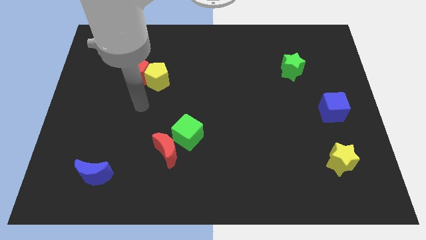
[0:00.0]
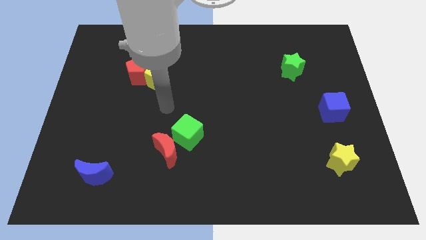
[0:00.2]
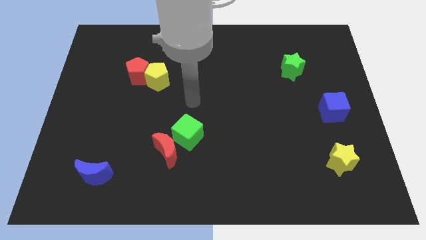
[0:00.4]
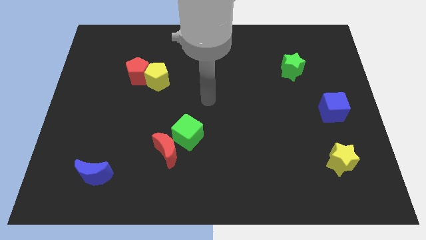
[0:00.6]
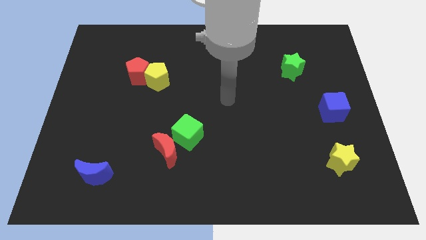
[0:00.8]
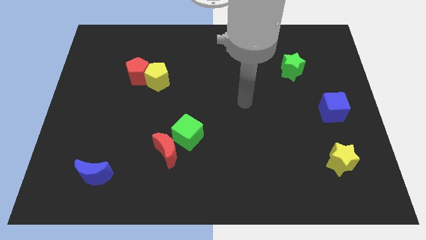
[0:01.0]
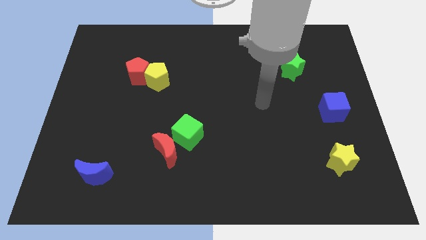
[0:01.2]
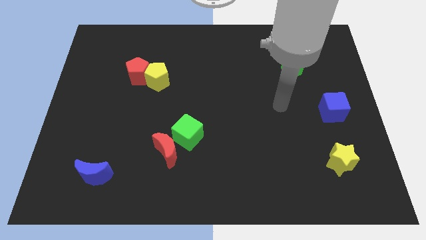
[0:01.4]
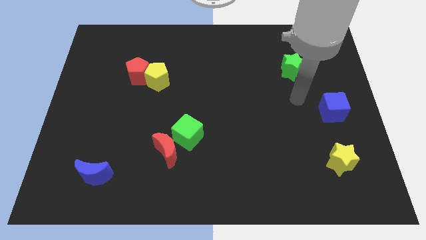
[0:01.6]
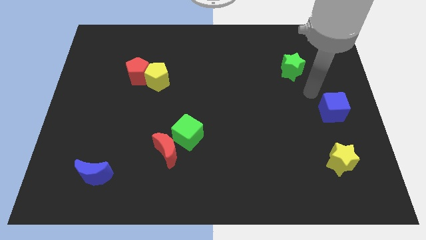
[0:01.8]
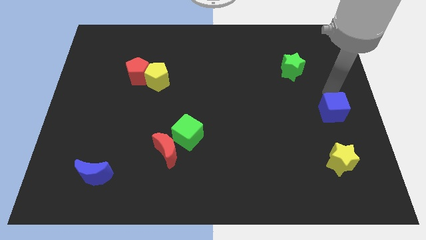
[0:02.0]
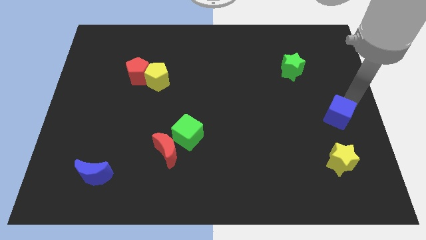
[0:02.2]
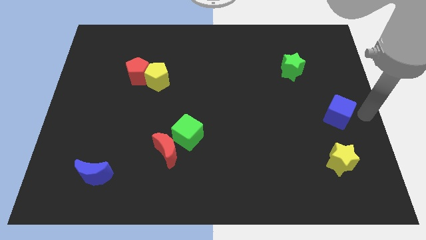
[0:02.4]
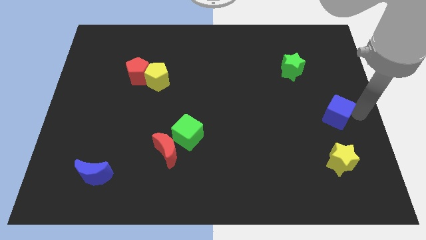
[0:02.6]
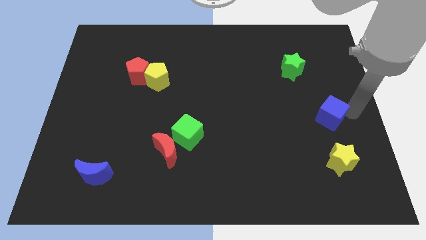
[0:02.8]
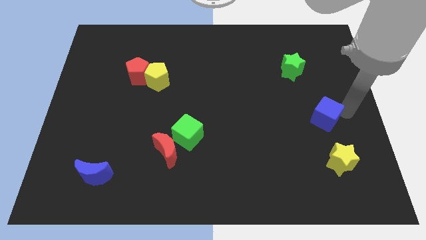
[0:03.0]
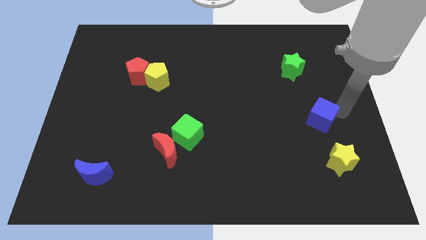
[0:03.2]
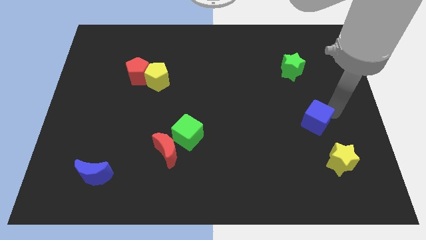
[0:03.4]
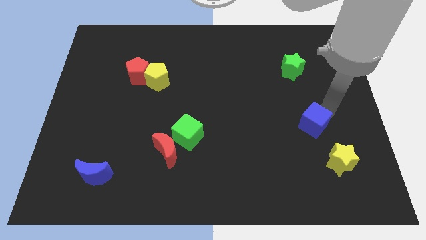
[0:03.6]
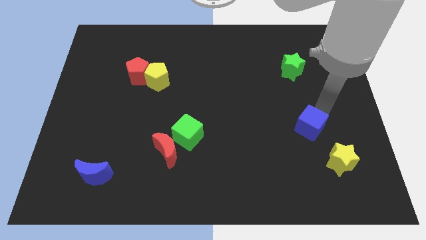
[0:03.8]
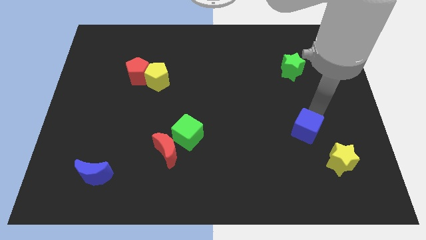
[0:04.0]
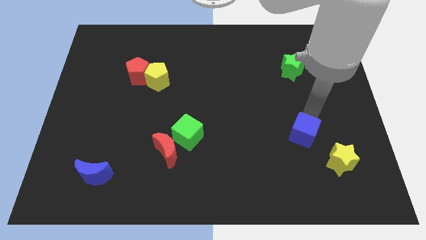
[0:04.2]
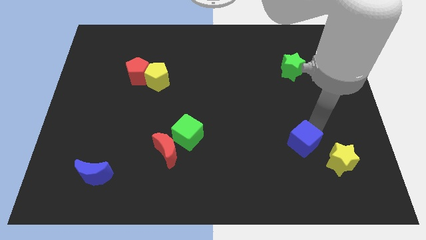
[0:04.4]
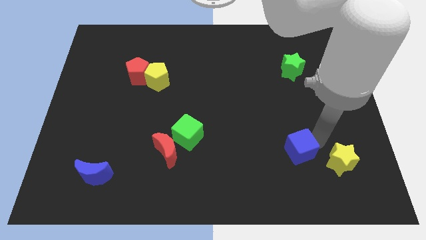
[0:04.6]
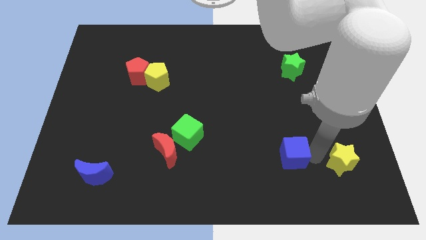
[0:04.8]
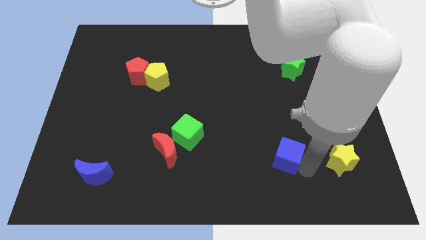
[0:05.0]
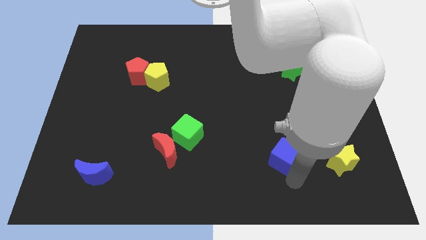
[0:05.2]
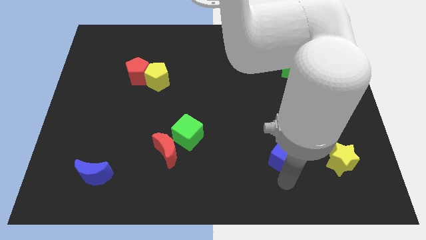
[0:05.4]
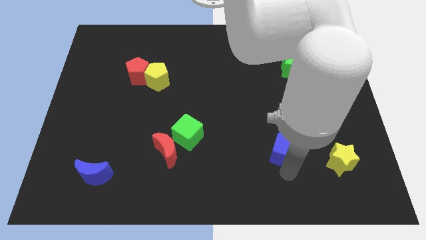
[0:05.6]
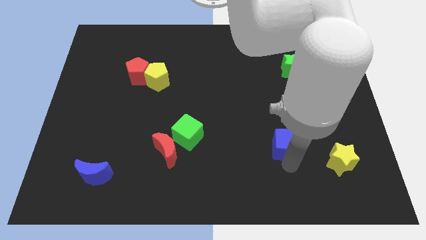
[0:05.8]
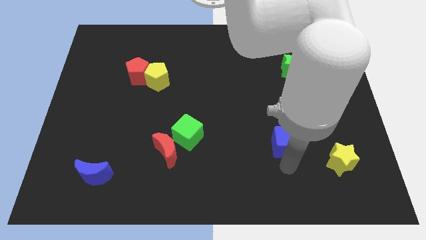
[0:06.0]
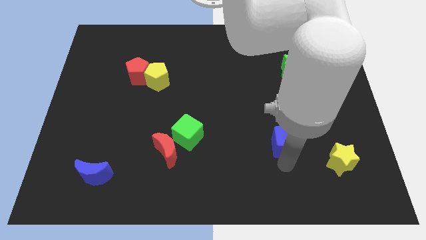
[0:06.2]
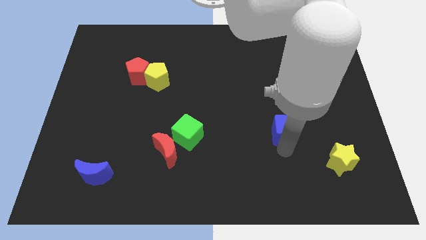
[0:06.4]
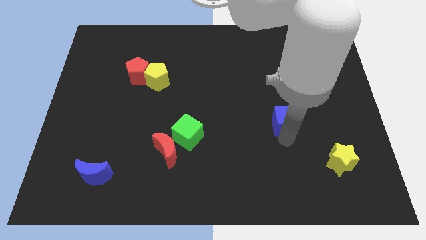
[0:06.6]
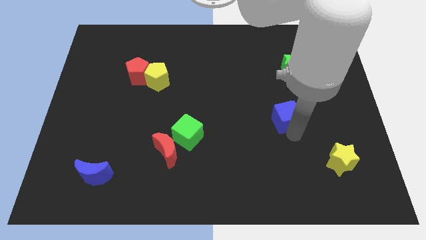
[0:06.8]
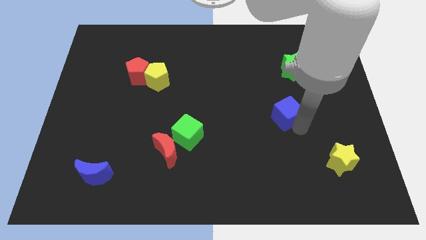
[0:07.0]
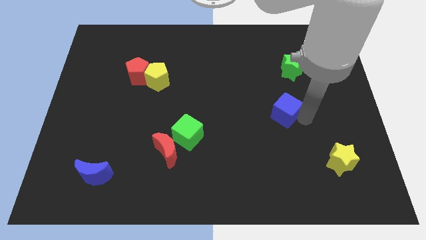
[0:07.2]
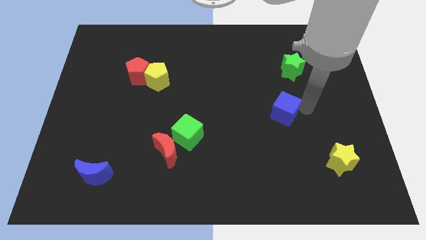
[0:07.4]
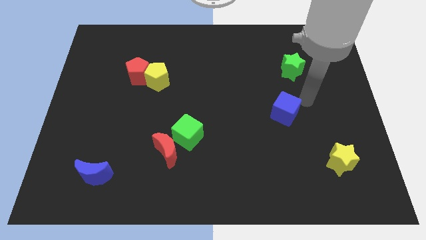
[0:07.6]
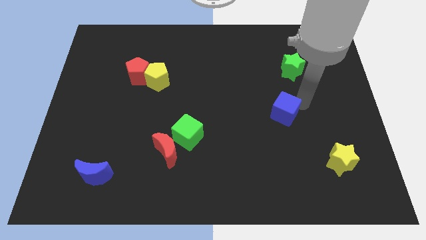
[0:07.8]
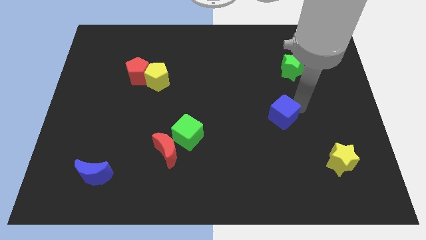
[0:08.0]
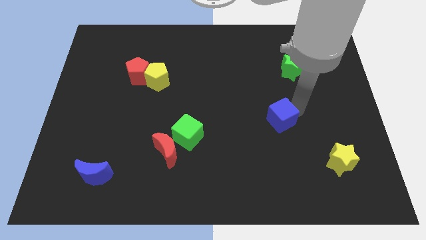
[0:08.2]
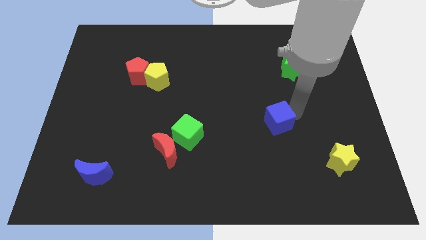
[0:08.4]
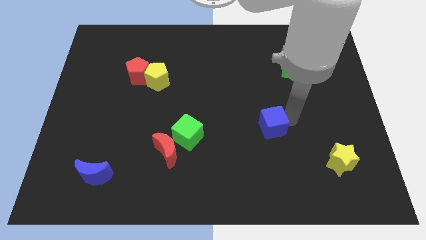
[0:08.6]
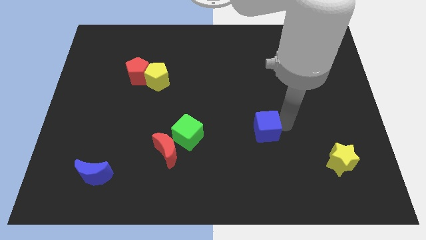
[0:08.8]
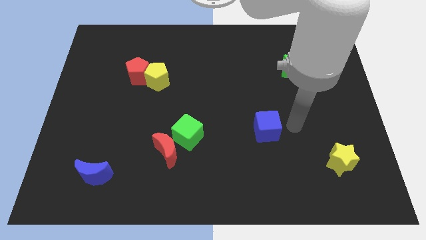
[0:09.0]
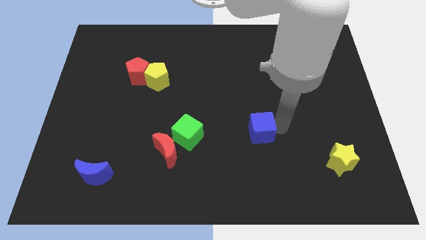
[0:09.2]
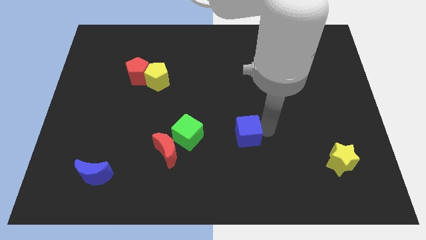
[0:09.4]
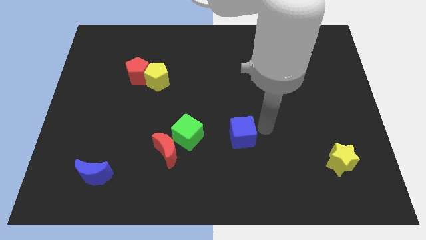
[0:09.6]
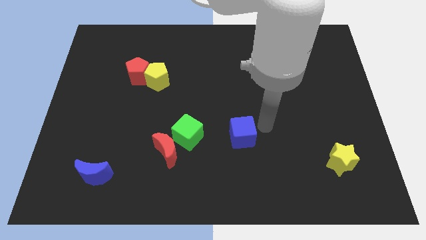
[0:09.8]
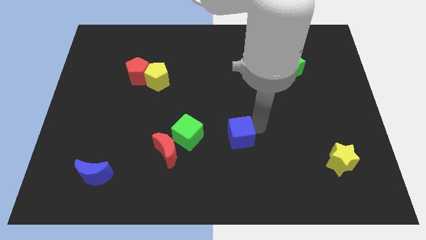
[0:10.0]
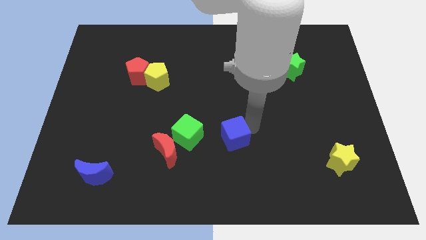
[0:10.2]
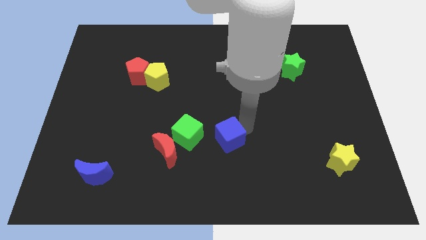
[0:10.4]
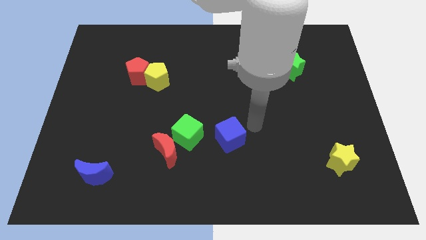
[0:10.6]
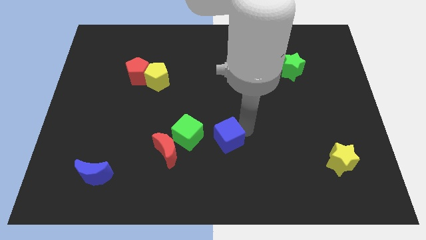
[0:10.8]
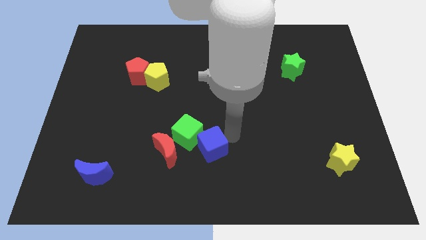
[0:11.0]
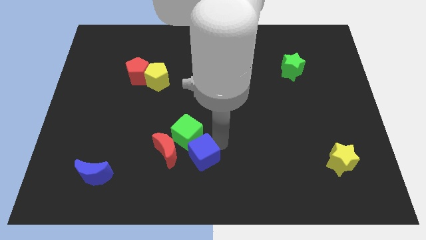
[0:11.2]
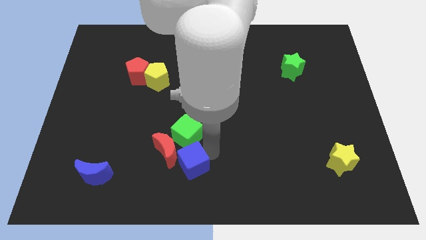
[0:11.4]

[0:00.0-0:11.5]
put the blue cube next to the red moon

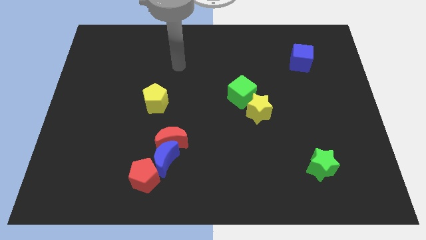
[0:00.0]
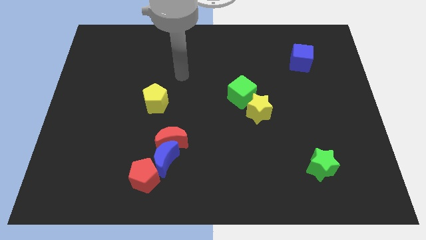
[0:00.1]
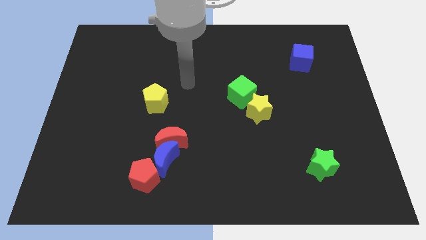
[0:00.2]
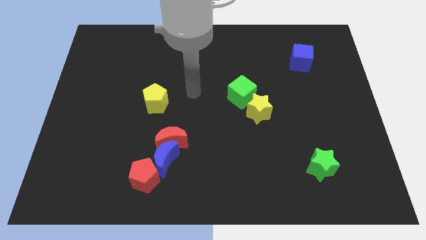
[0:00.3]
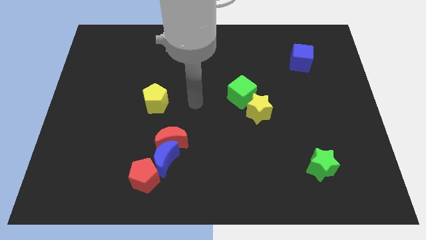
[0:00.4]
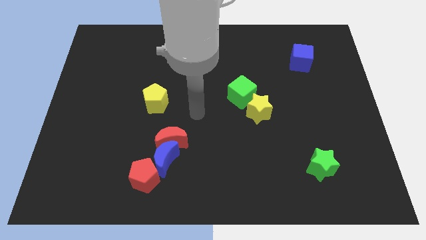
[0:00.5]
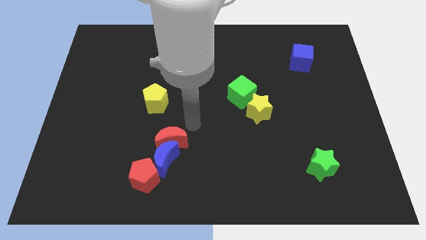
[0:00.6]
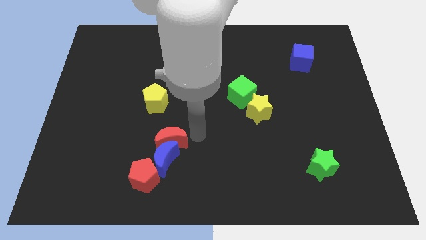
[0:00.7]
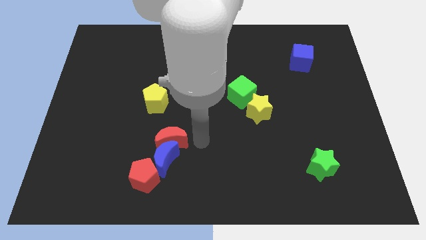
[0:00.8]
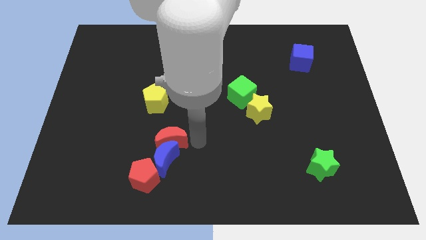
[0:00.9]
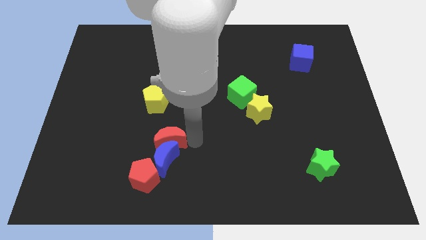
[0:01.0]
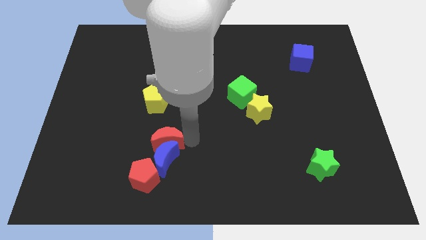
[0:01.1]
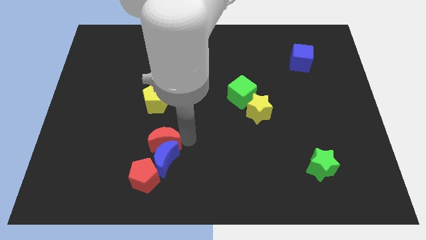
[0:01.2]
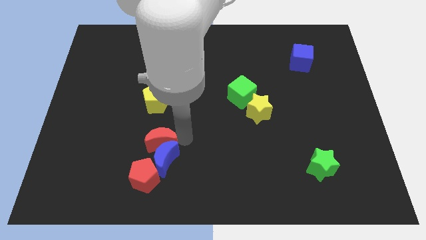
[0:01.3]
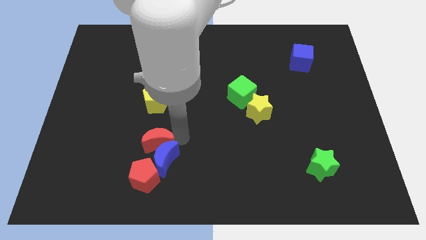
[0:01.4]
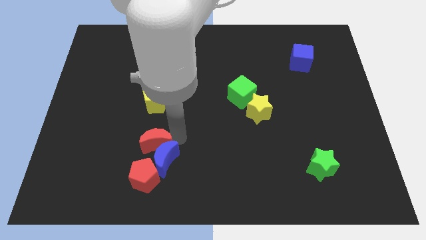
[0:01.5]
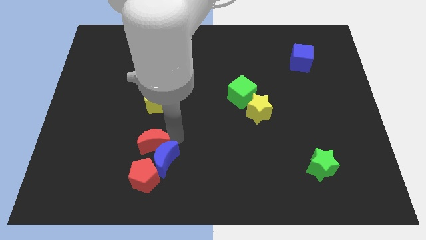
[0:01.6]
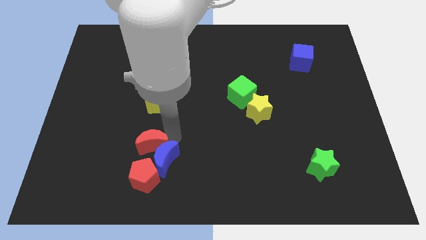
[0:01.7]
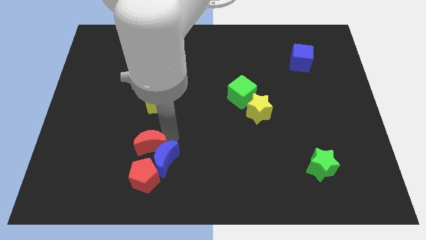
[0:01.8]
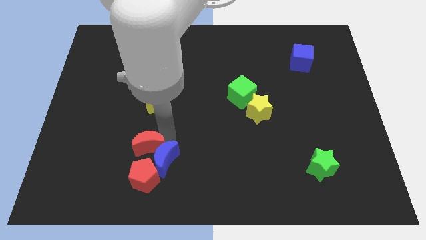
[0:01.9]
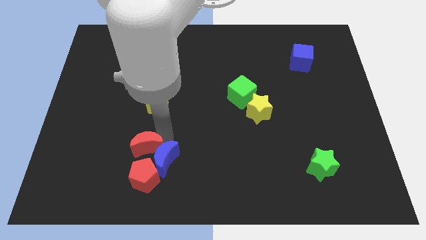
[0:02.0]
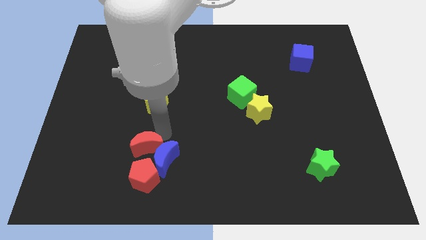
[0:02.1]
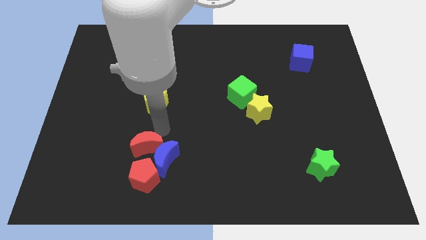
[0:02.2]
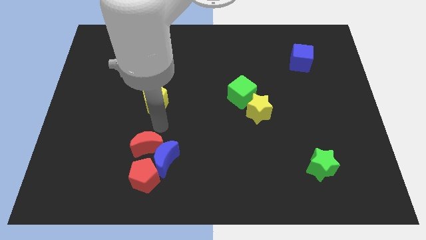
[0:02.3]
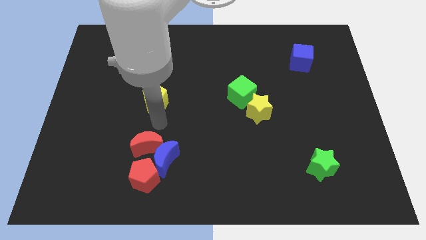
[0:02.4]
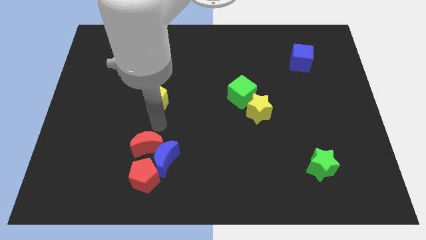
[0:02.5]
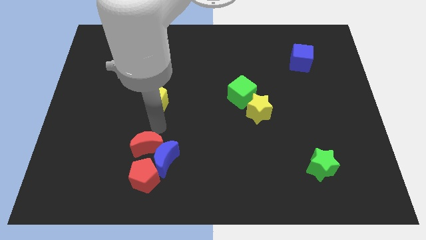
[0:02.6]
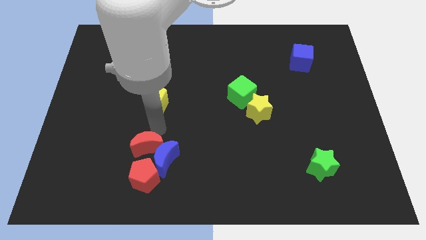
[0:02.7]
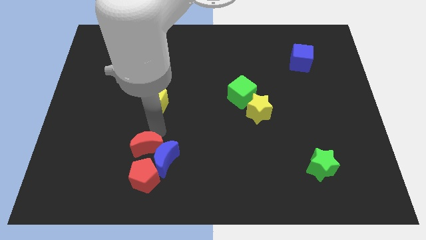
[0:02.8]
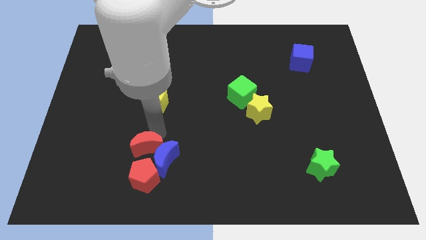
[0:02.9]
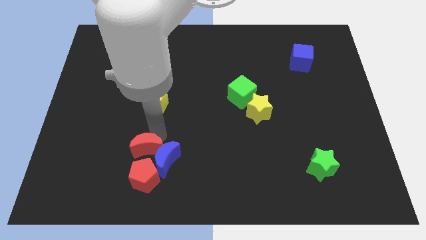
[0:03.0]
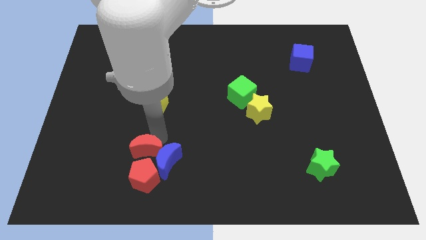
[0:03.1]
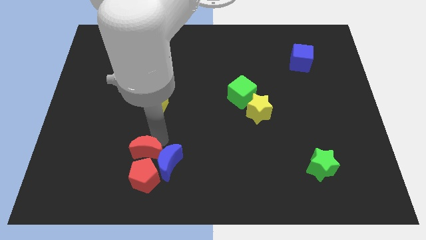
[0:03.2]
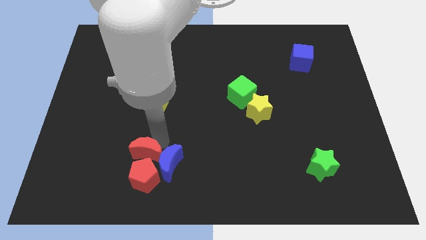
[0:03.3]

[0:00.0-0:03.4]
slide the red moon to the red pentagon
